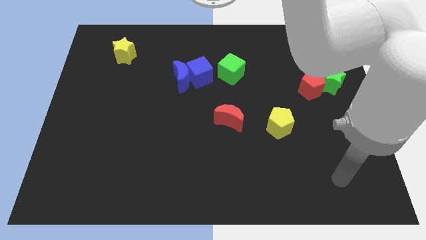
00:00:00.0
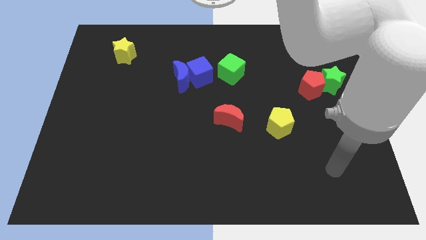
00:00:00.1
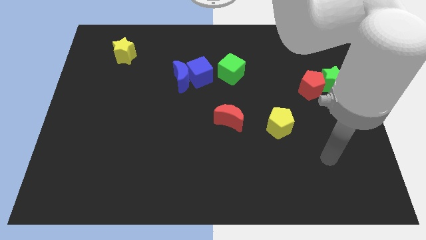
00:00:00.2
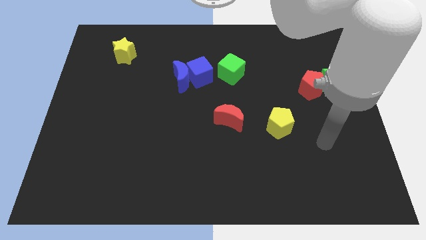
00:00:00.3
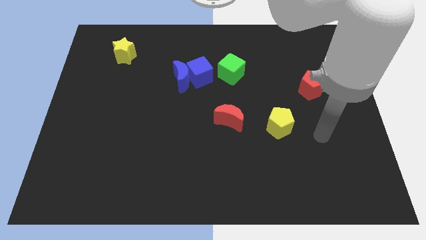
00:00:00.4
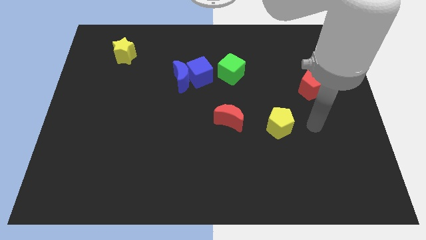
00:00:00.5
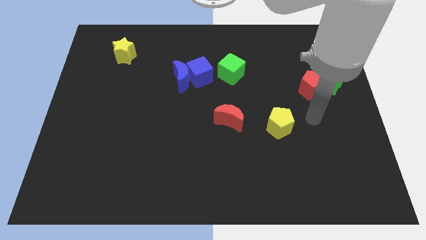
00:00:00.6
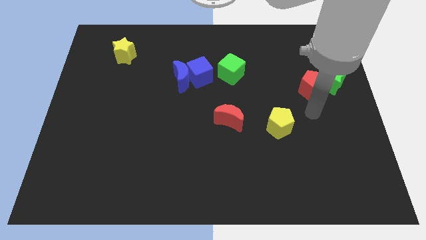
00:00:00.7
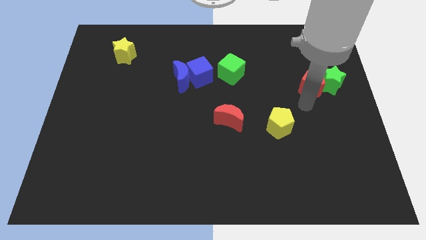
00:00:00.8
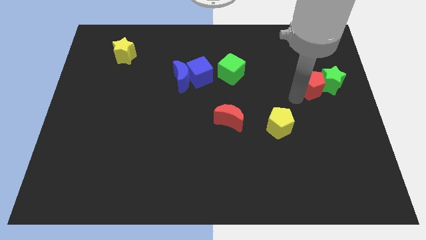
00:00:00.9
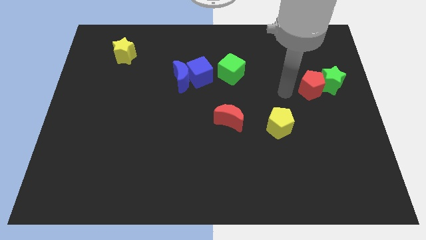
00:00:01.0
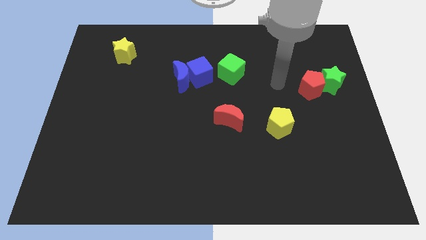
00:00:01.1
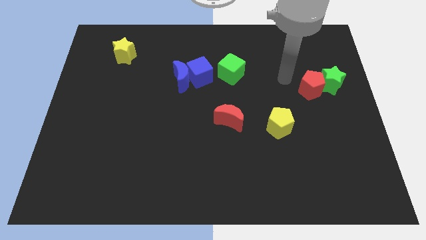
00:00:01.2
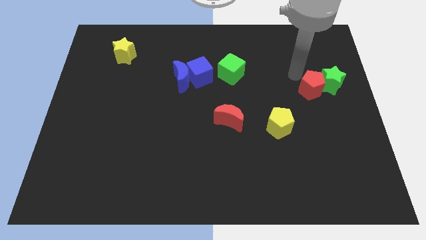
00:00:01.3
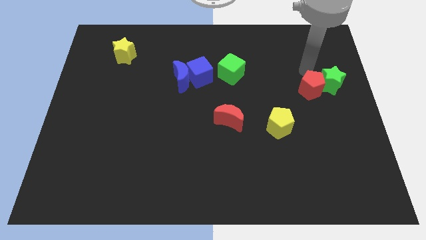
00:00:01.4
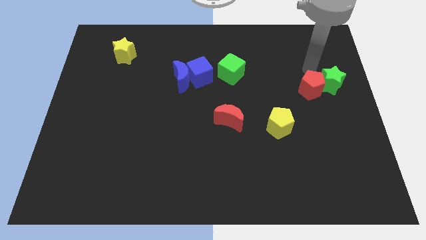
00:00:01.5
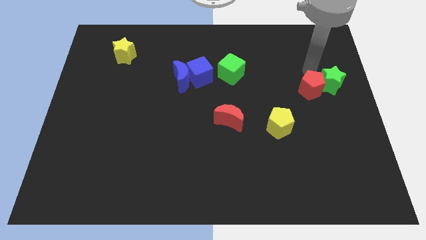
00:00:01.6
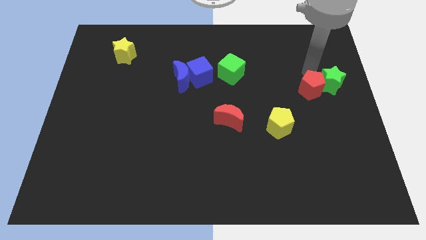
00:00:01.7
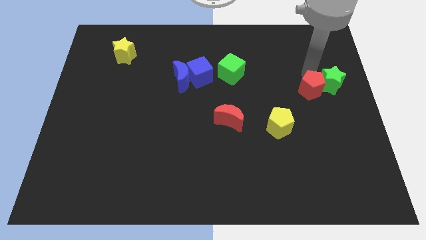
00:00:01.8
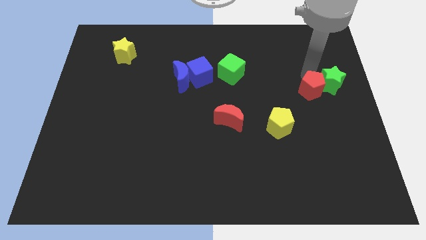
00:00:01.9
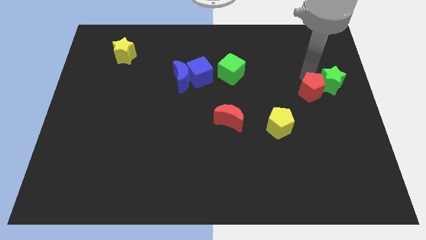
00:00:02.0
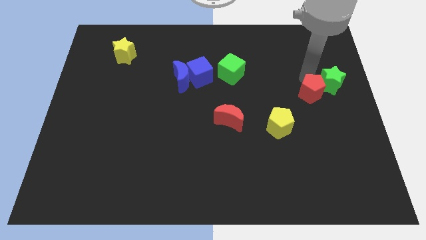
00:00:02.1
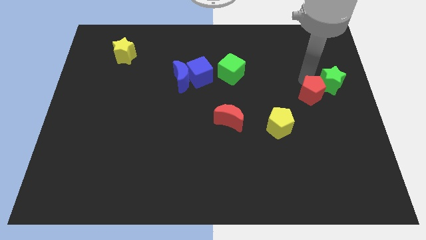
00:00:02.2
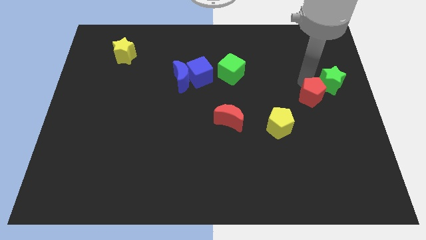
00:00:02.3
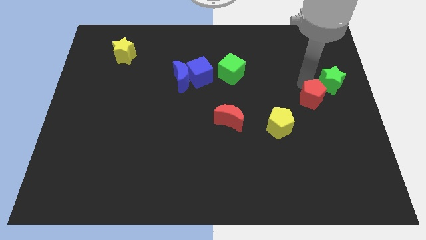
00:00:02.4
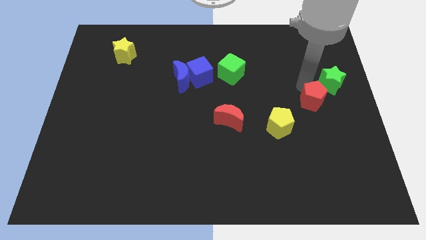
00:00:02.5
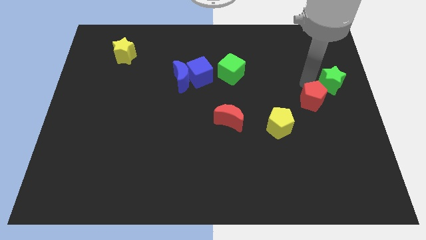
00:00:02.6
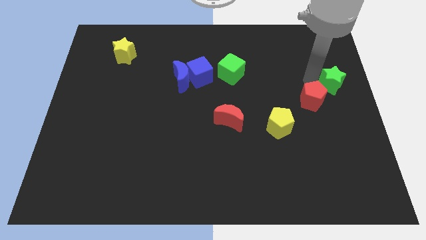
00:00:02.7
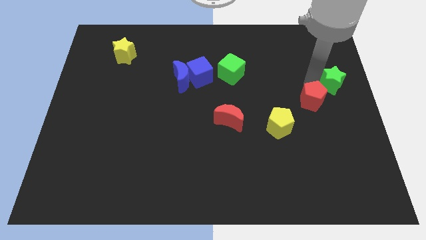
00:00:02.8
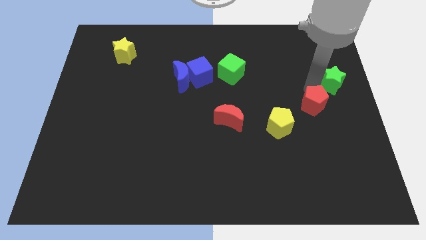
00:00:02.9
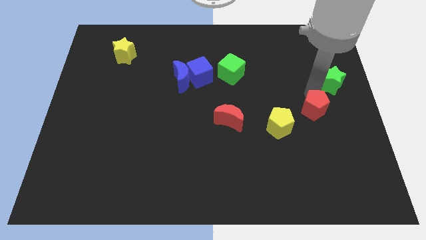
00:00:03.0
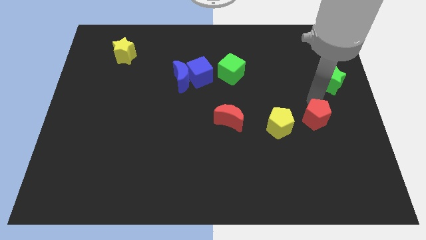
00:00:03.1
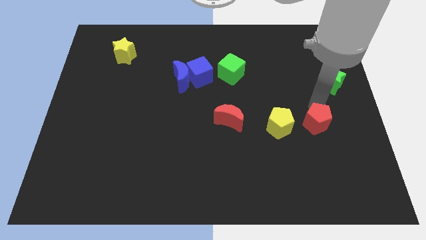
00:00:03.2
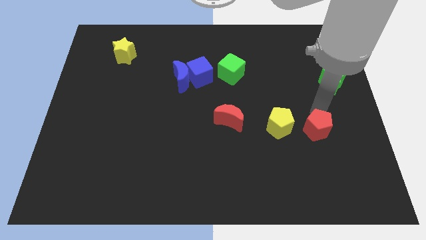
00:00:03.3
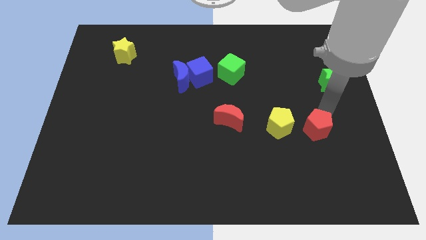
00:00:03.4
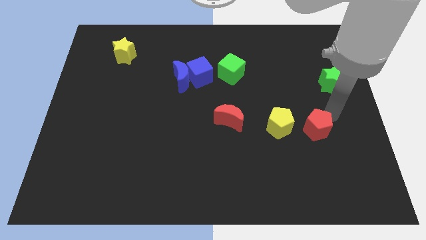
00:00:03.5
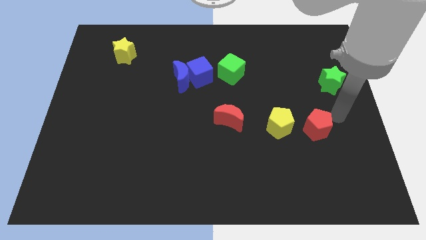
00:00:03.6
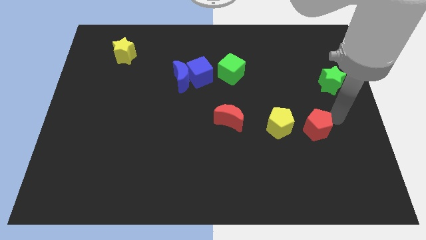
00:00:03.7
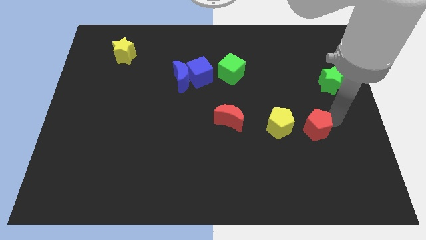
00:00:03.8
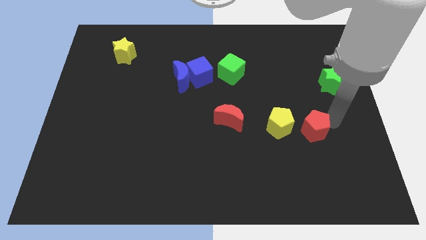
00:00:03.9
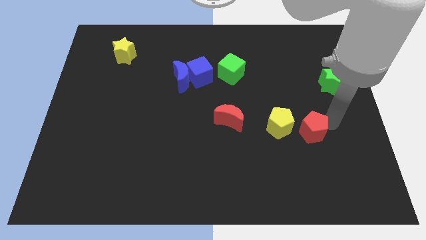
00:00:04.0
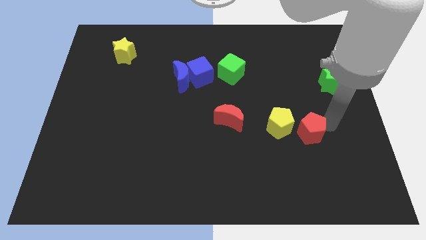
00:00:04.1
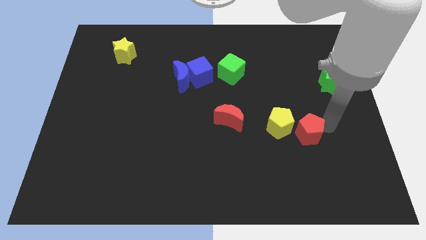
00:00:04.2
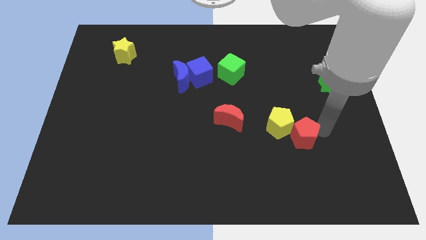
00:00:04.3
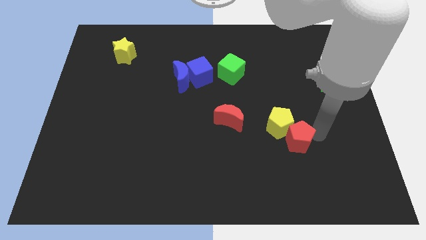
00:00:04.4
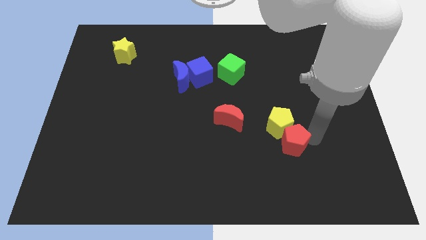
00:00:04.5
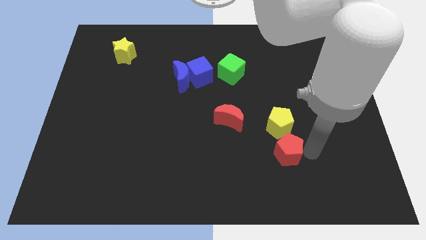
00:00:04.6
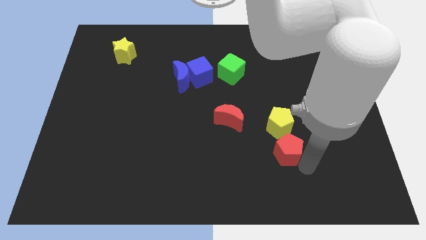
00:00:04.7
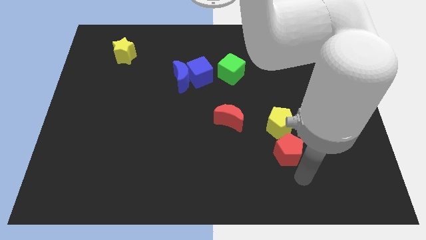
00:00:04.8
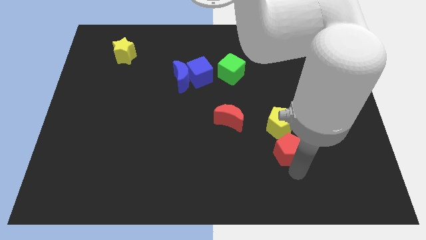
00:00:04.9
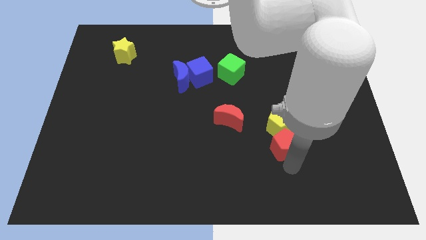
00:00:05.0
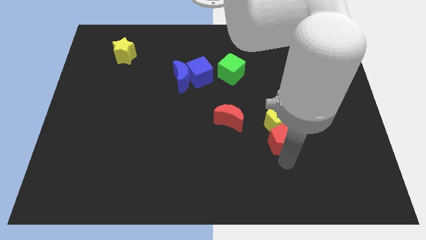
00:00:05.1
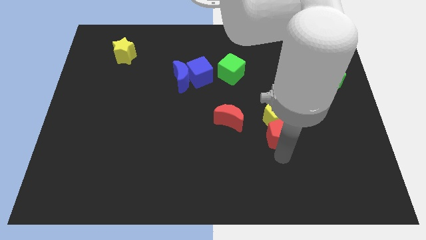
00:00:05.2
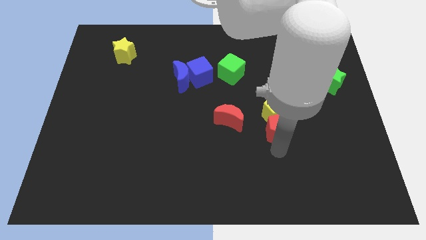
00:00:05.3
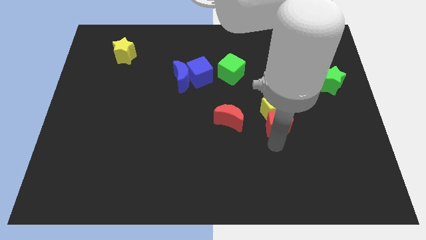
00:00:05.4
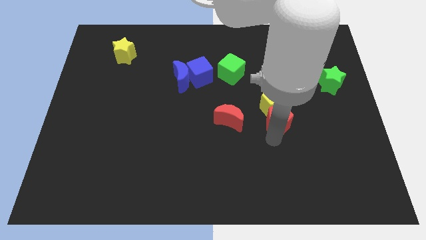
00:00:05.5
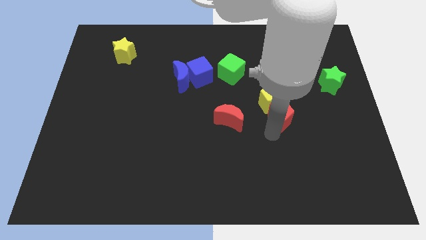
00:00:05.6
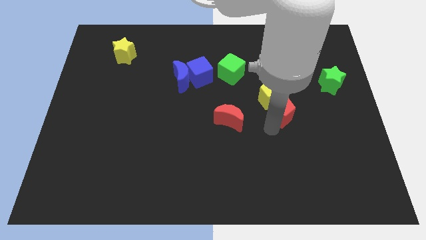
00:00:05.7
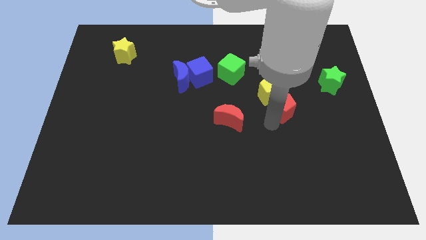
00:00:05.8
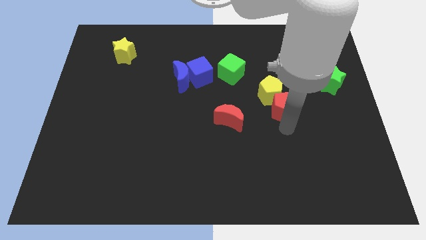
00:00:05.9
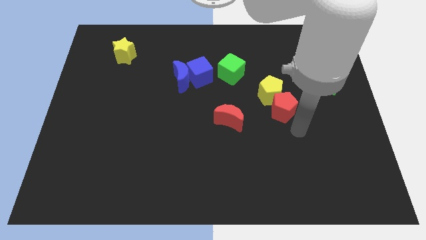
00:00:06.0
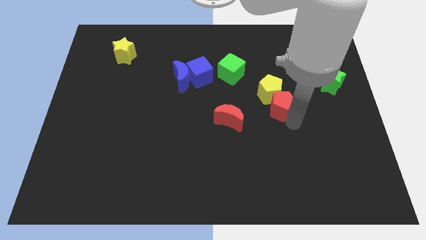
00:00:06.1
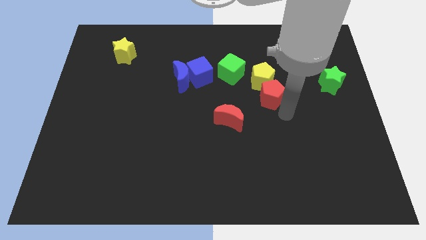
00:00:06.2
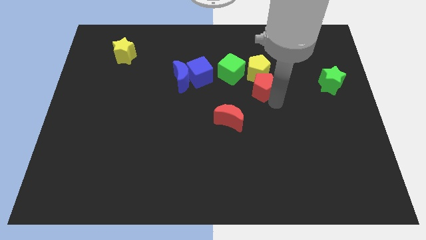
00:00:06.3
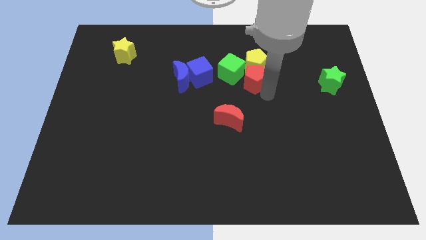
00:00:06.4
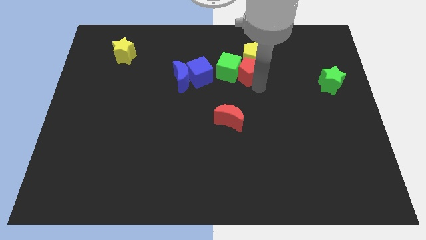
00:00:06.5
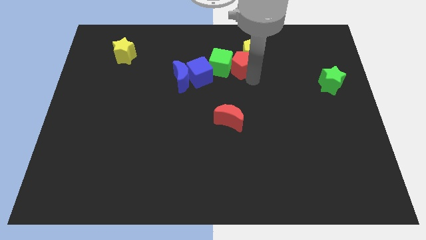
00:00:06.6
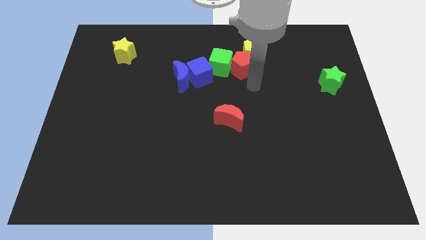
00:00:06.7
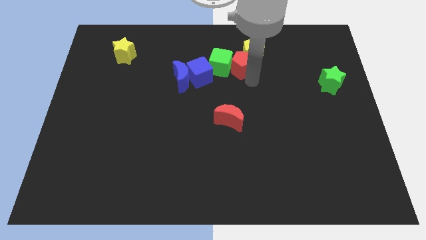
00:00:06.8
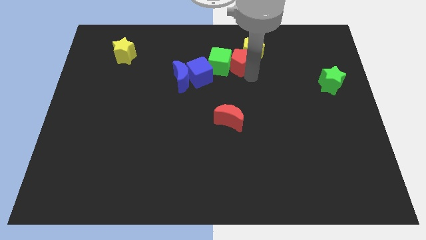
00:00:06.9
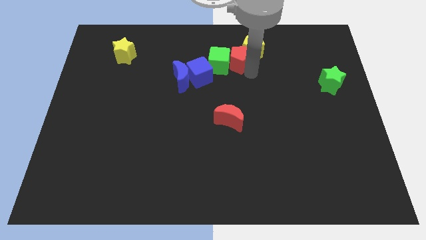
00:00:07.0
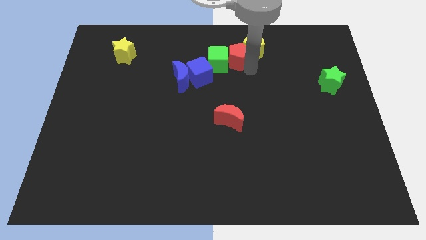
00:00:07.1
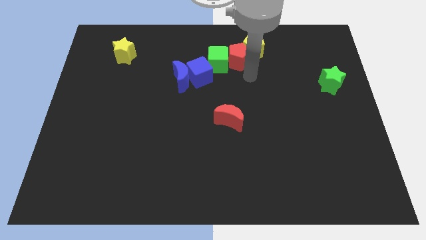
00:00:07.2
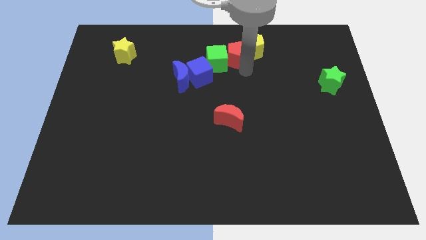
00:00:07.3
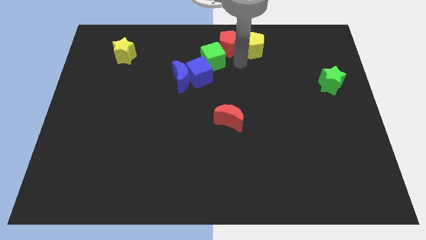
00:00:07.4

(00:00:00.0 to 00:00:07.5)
move the red pentagon to the top
